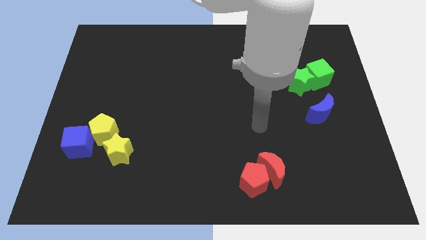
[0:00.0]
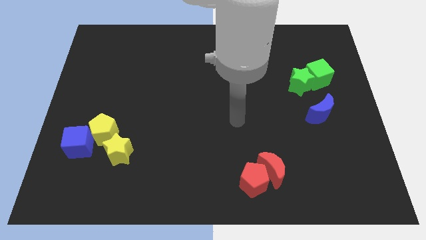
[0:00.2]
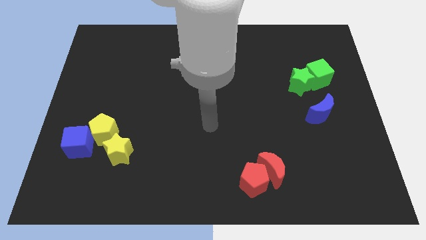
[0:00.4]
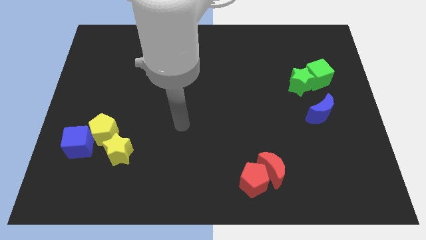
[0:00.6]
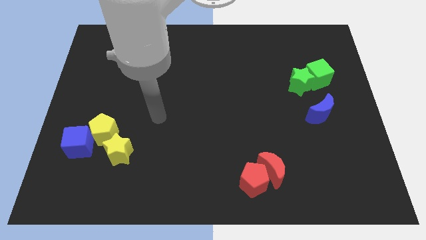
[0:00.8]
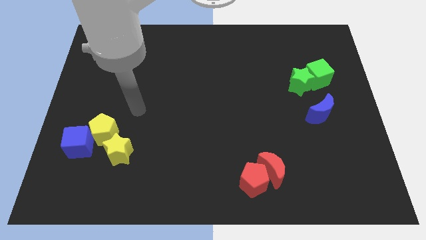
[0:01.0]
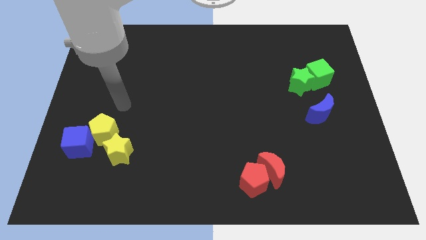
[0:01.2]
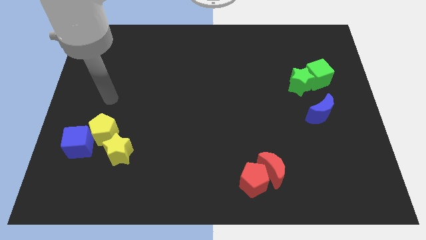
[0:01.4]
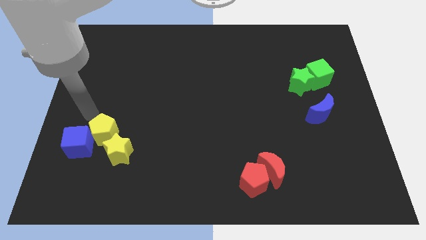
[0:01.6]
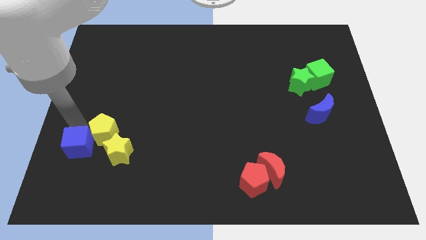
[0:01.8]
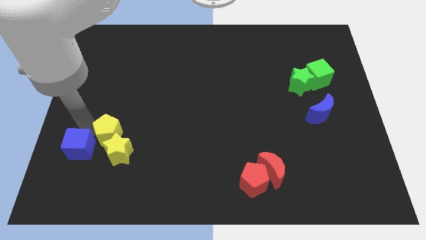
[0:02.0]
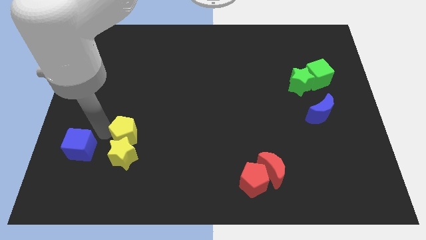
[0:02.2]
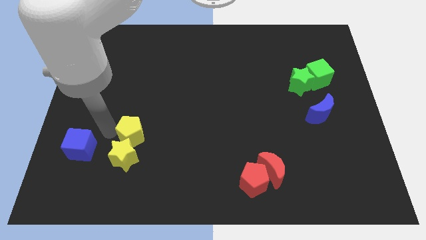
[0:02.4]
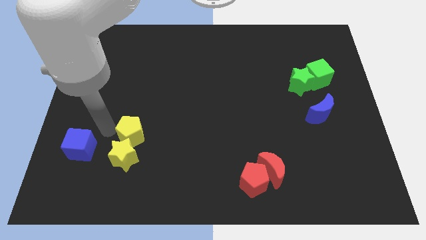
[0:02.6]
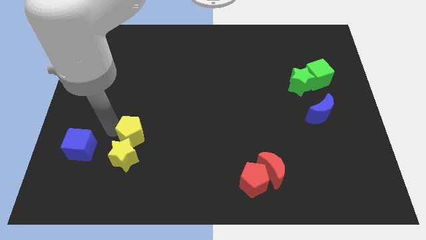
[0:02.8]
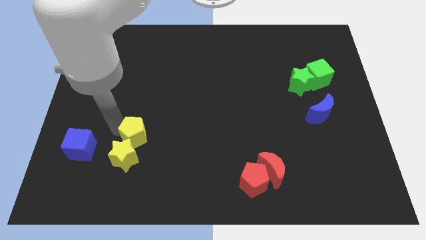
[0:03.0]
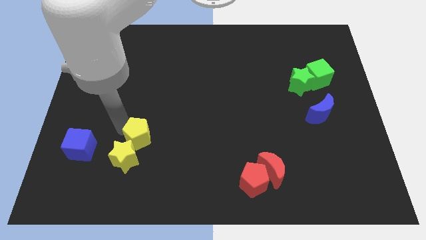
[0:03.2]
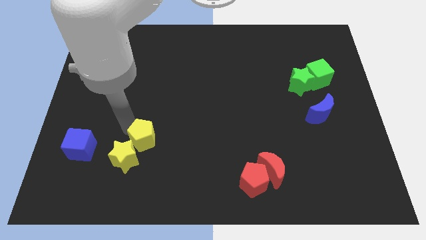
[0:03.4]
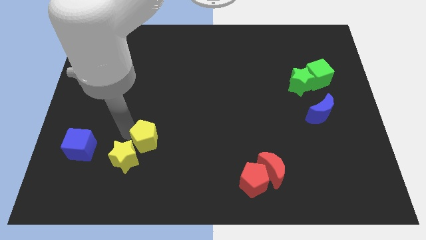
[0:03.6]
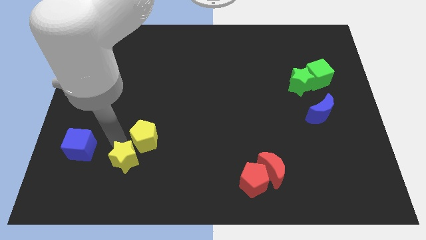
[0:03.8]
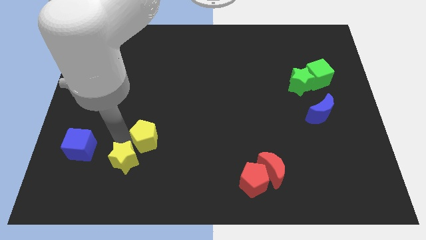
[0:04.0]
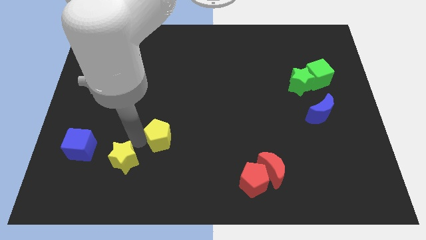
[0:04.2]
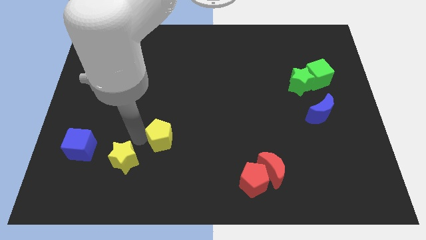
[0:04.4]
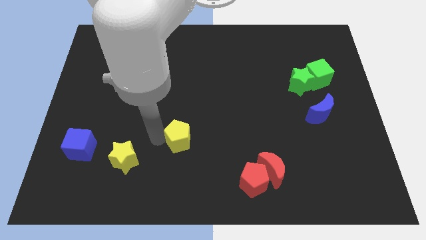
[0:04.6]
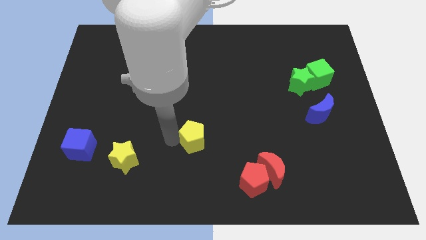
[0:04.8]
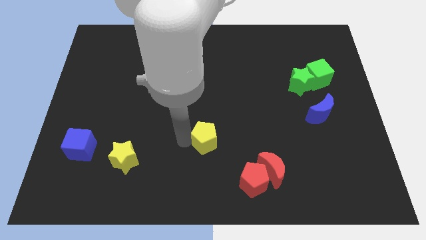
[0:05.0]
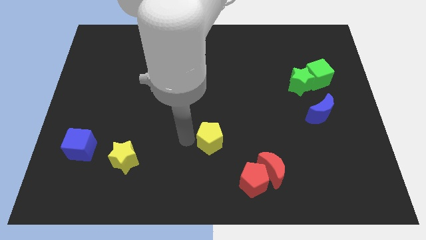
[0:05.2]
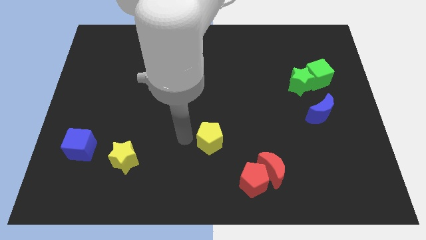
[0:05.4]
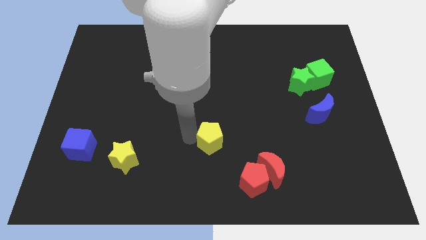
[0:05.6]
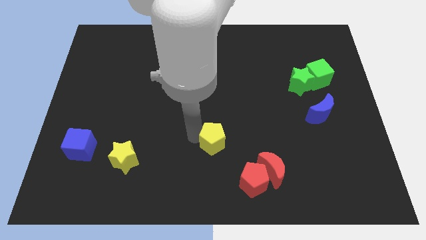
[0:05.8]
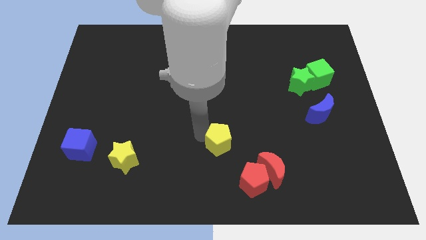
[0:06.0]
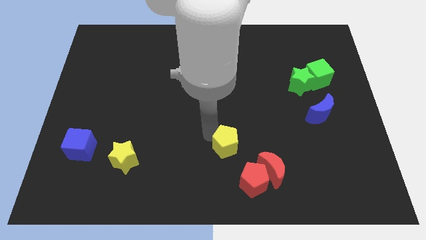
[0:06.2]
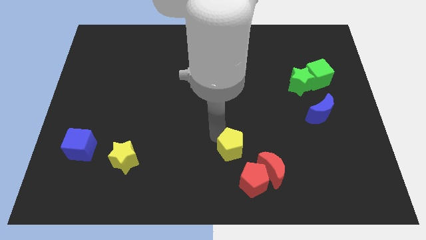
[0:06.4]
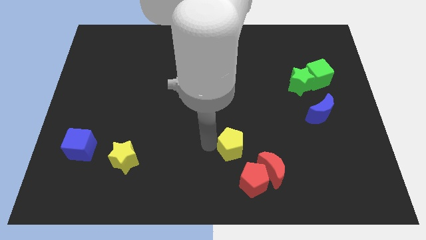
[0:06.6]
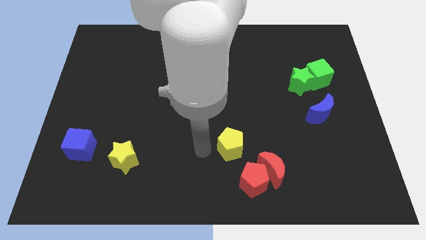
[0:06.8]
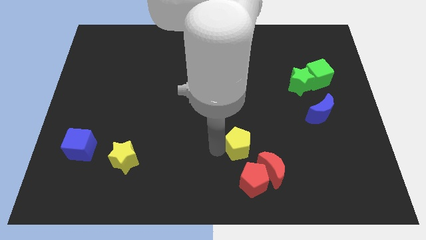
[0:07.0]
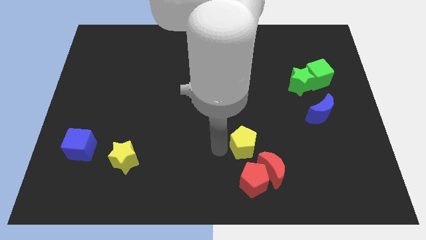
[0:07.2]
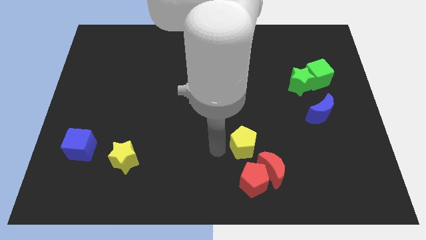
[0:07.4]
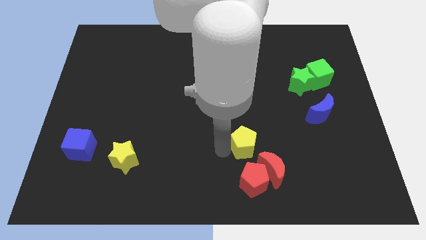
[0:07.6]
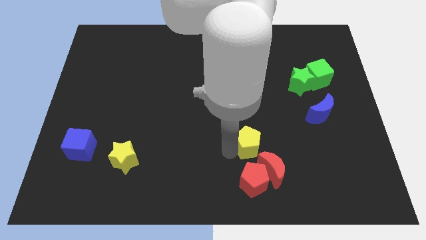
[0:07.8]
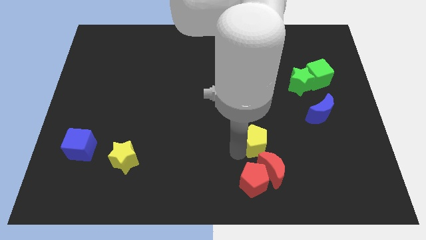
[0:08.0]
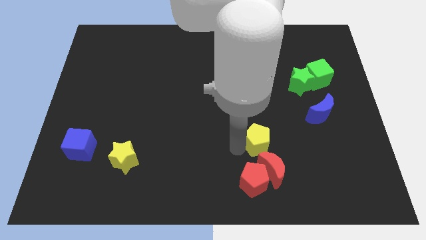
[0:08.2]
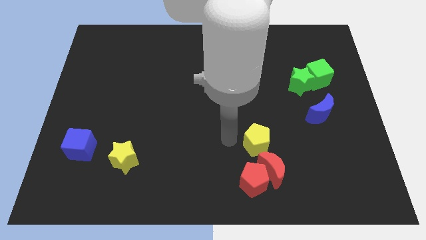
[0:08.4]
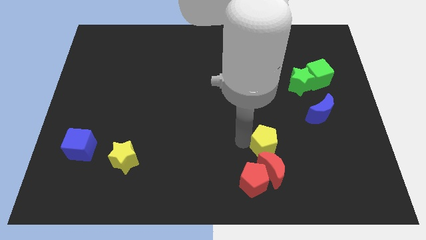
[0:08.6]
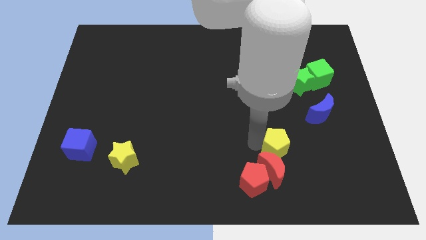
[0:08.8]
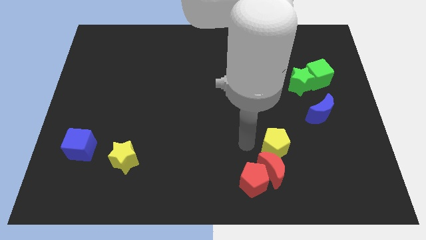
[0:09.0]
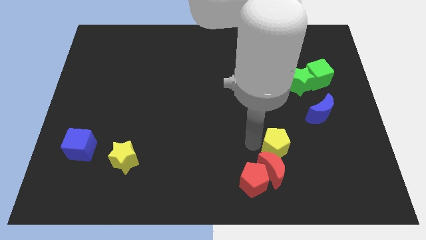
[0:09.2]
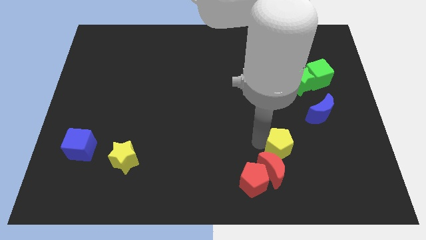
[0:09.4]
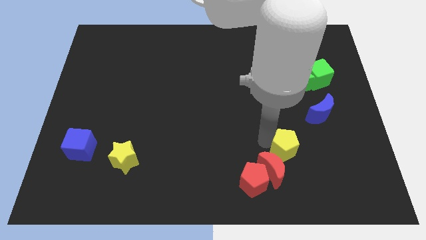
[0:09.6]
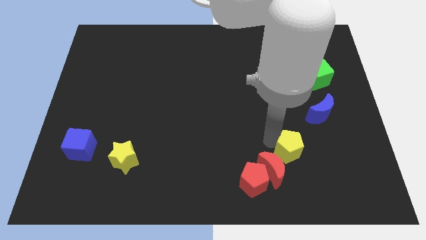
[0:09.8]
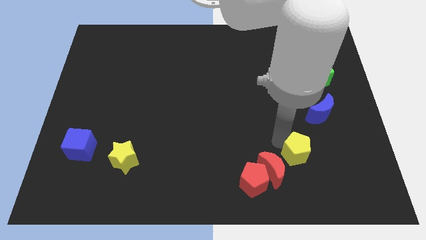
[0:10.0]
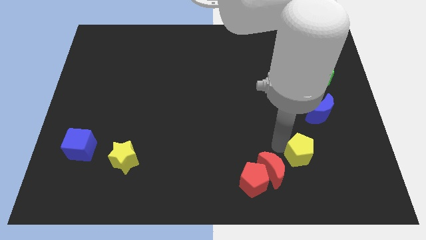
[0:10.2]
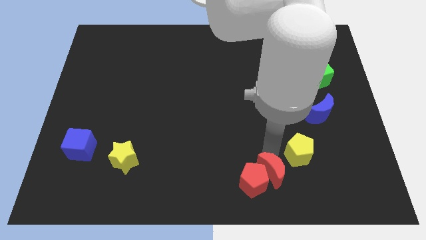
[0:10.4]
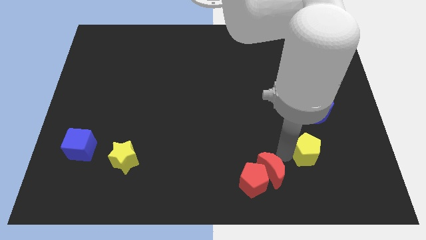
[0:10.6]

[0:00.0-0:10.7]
slide the yellow pentagon to the bottom of the blue moon

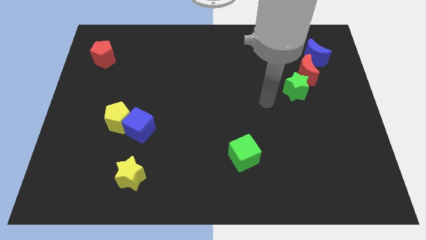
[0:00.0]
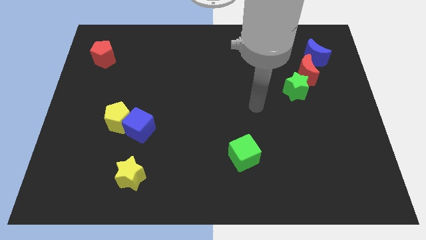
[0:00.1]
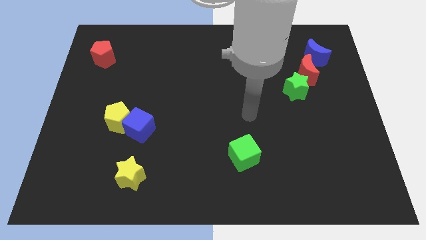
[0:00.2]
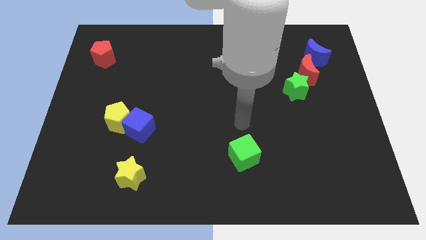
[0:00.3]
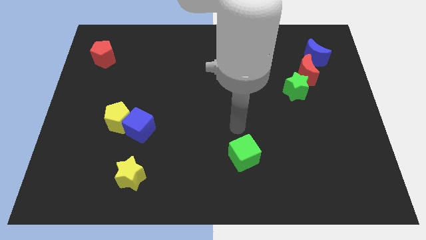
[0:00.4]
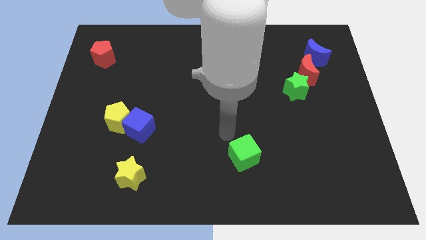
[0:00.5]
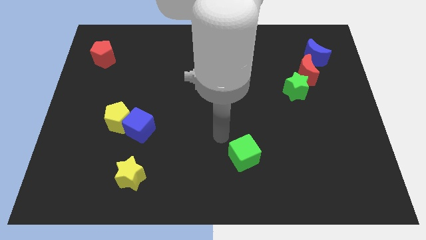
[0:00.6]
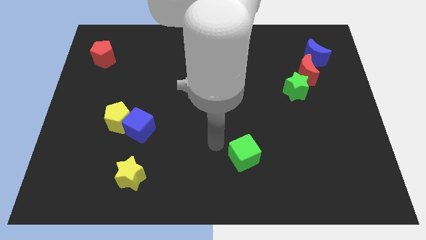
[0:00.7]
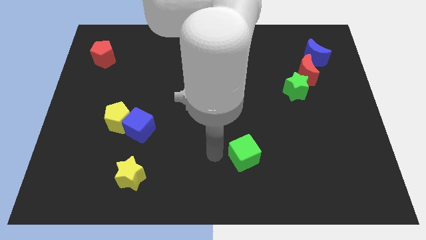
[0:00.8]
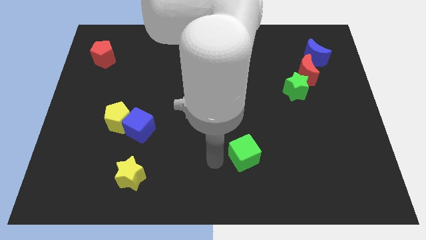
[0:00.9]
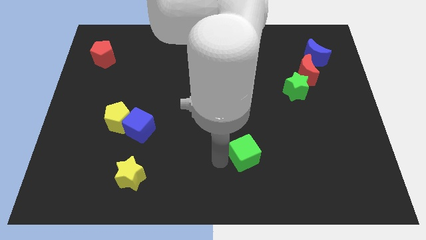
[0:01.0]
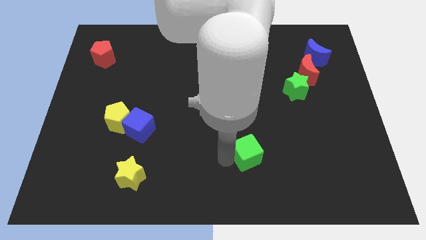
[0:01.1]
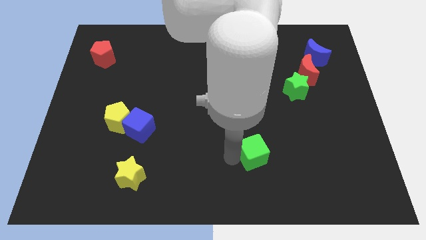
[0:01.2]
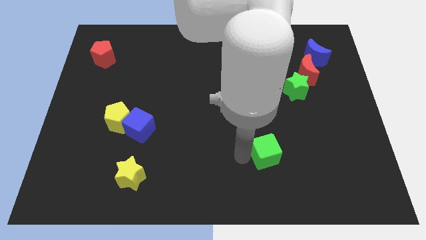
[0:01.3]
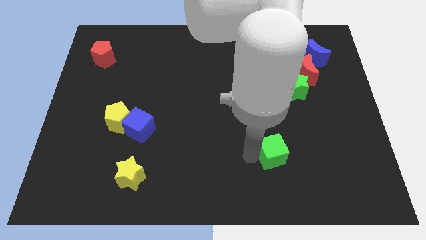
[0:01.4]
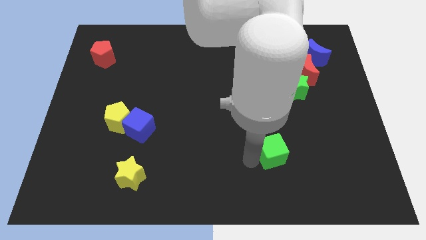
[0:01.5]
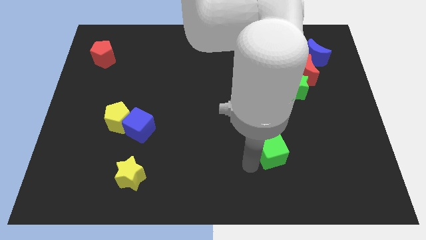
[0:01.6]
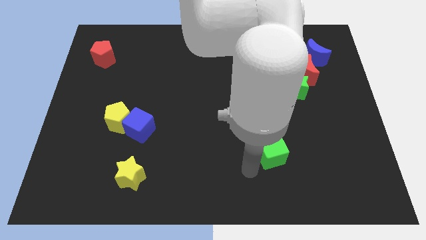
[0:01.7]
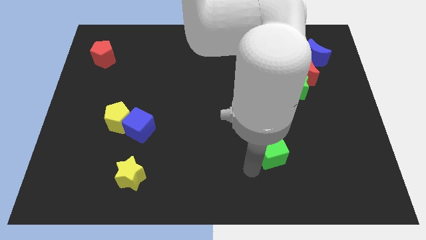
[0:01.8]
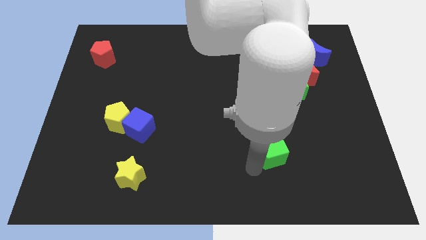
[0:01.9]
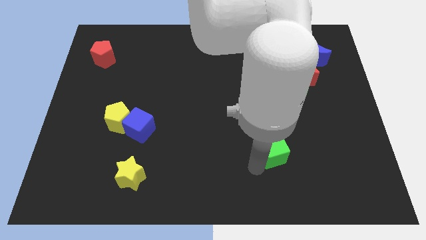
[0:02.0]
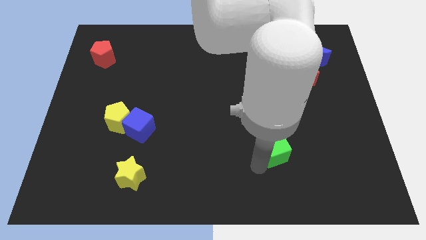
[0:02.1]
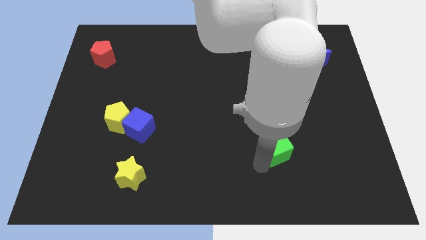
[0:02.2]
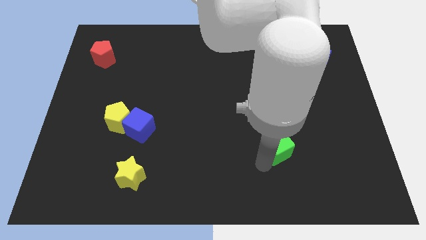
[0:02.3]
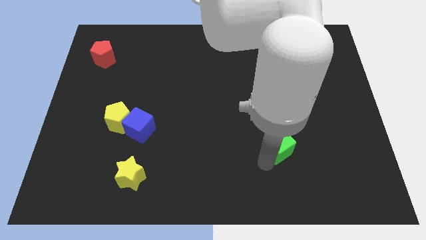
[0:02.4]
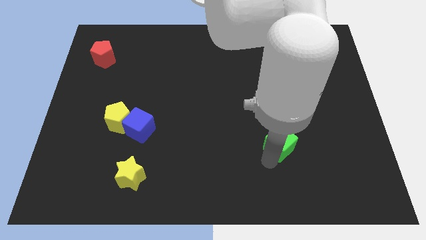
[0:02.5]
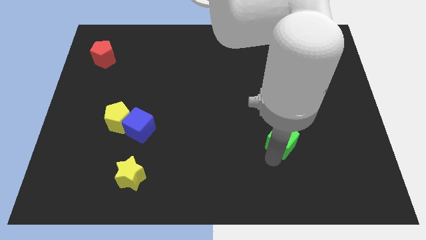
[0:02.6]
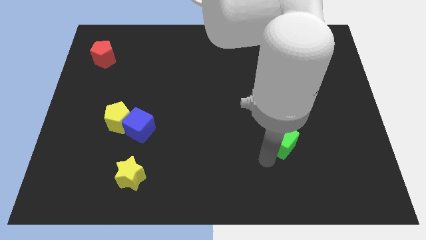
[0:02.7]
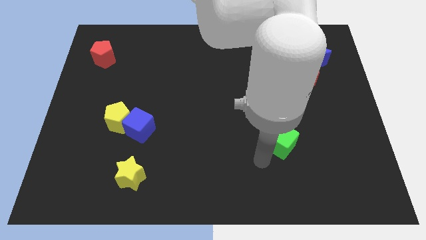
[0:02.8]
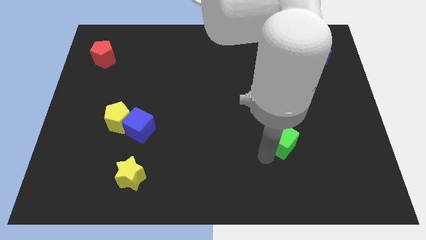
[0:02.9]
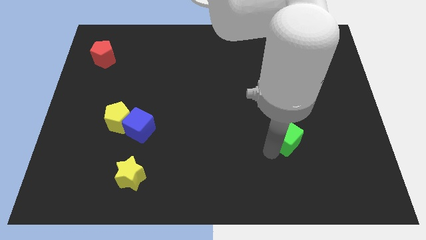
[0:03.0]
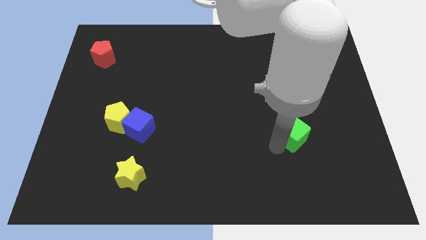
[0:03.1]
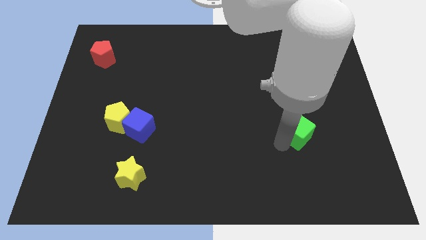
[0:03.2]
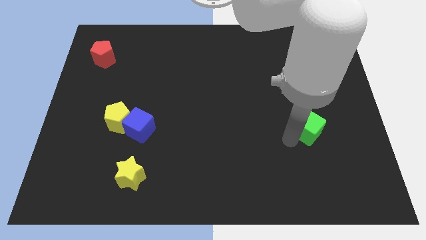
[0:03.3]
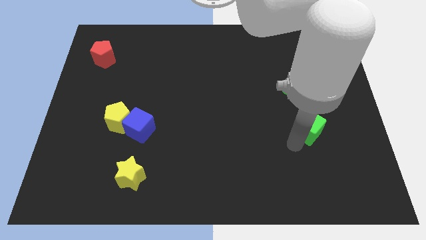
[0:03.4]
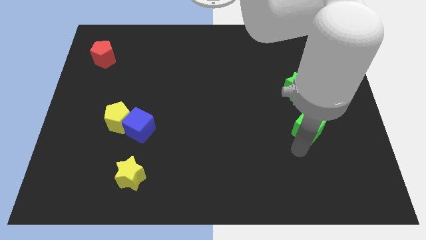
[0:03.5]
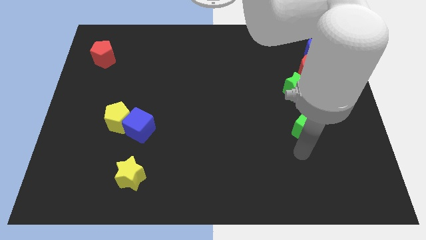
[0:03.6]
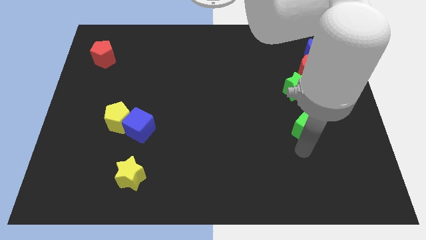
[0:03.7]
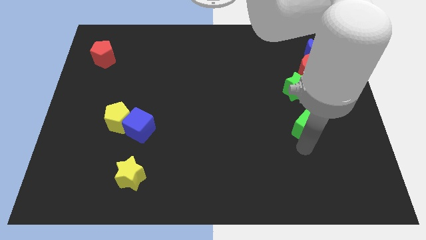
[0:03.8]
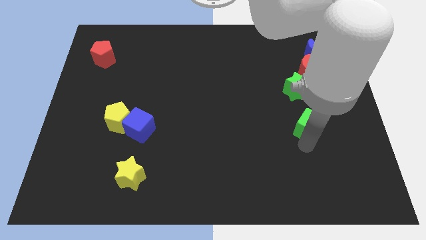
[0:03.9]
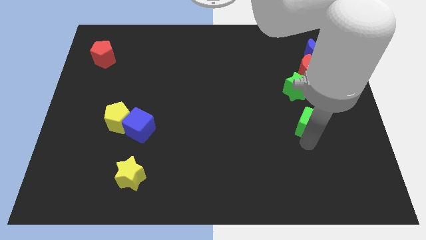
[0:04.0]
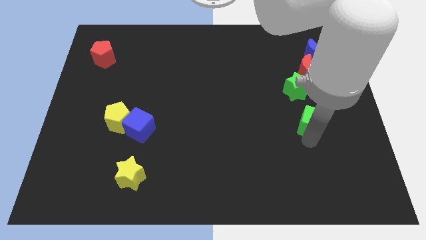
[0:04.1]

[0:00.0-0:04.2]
put the green cube to the bottom side of the red moon
